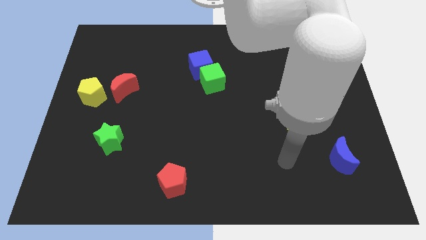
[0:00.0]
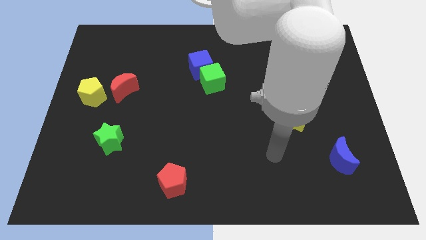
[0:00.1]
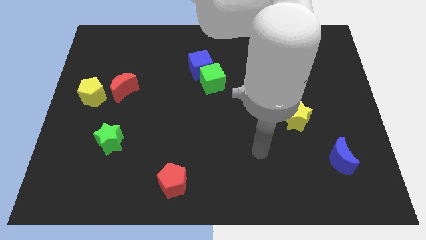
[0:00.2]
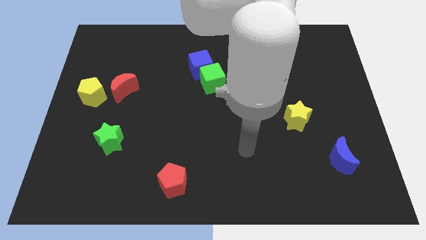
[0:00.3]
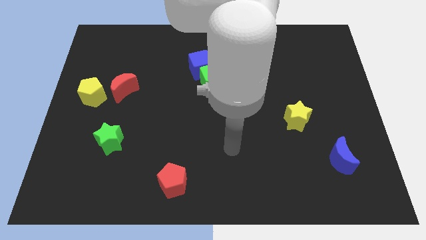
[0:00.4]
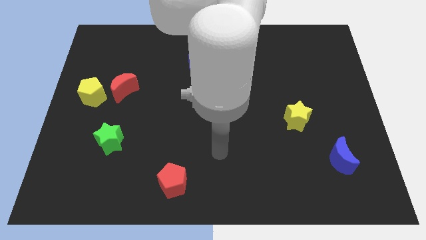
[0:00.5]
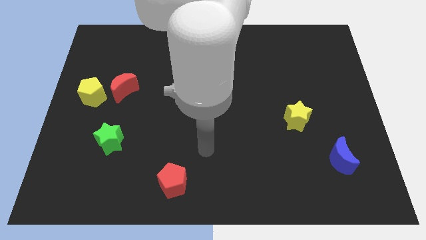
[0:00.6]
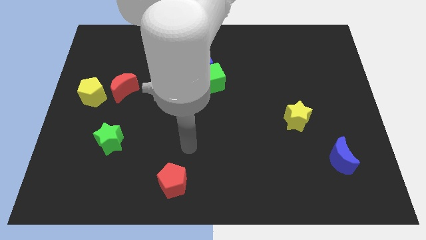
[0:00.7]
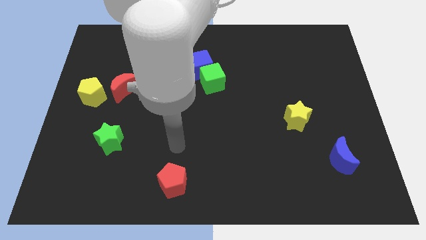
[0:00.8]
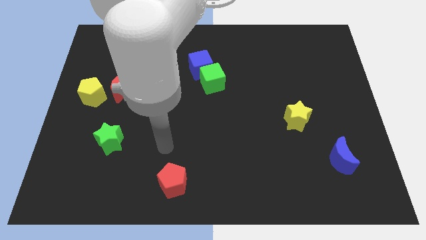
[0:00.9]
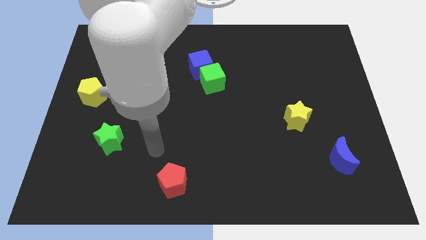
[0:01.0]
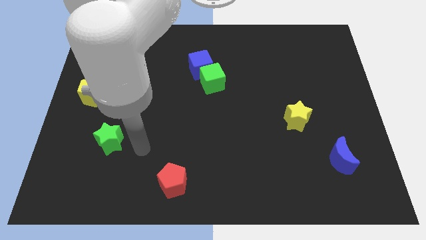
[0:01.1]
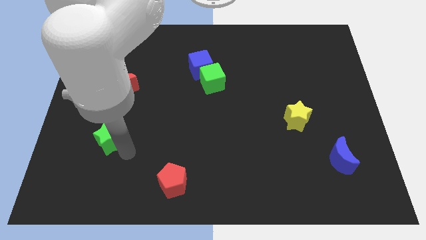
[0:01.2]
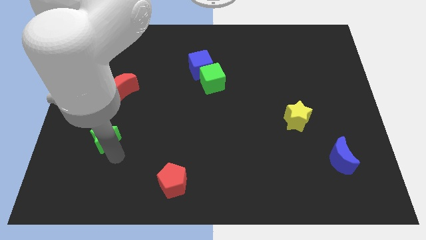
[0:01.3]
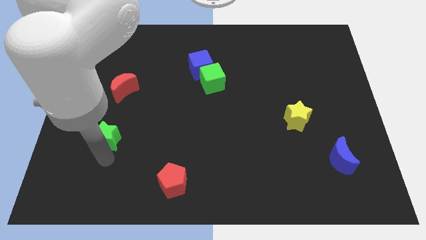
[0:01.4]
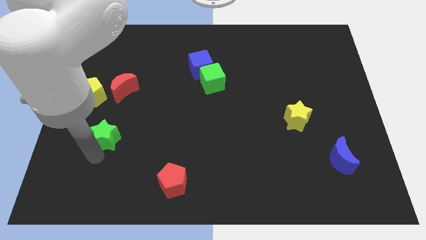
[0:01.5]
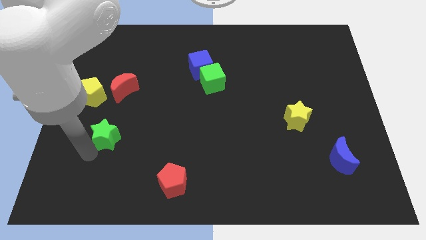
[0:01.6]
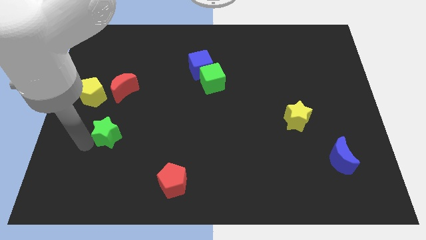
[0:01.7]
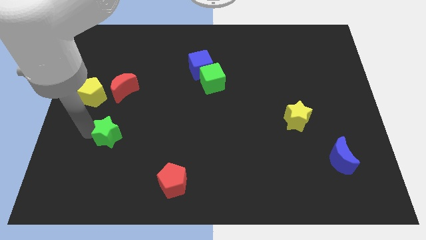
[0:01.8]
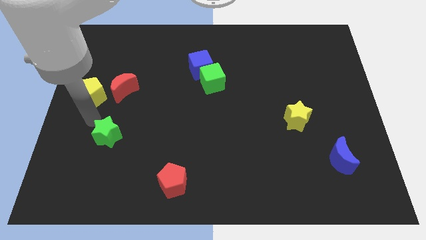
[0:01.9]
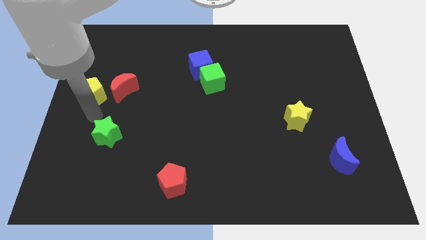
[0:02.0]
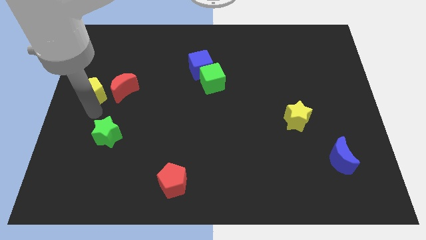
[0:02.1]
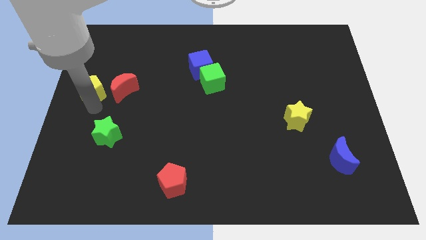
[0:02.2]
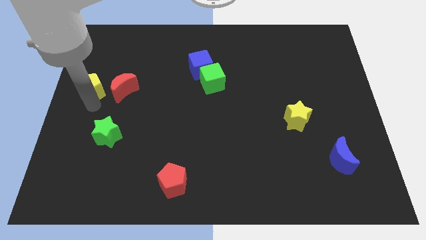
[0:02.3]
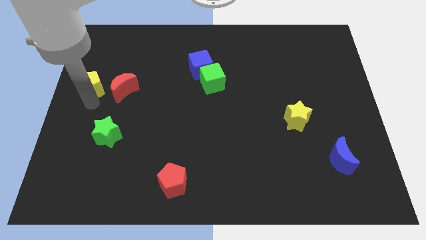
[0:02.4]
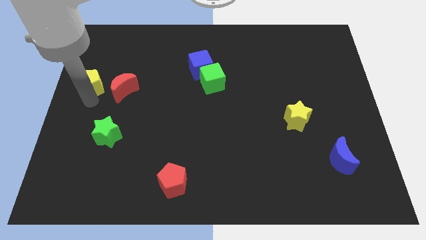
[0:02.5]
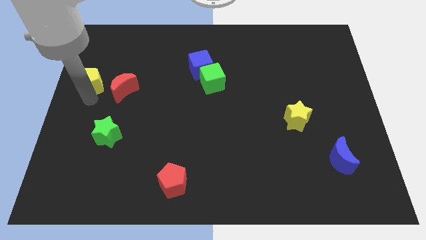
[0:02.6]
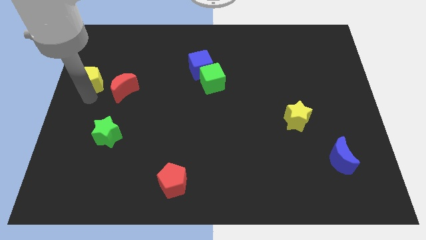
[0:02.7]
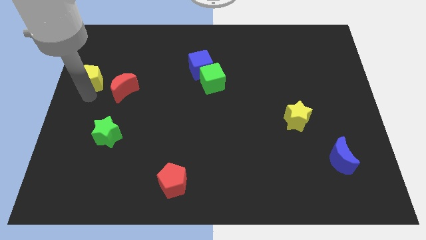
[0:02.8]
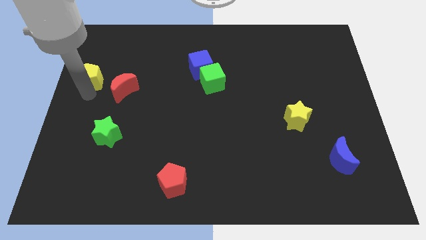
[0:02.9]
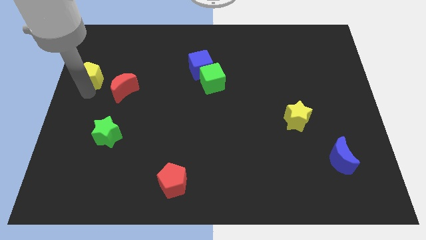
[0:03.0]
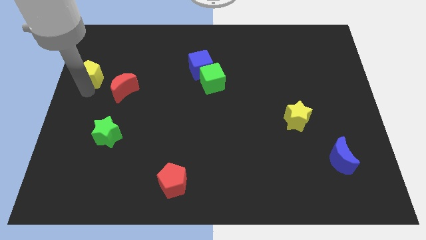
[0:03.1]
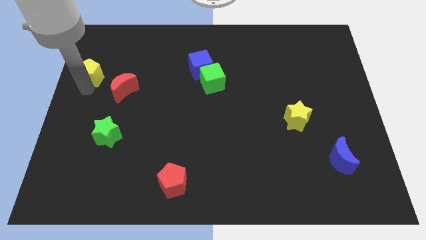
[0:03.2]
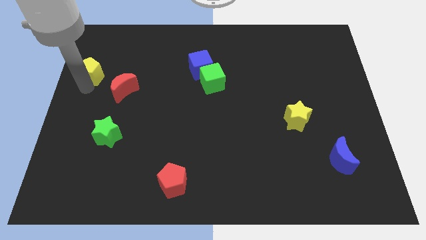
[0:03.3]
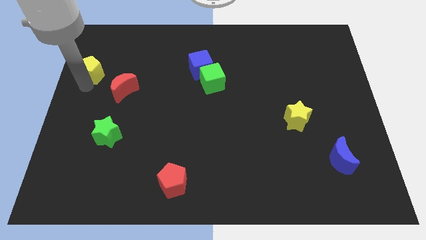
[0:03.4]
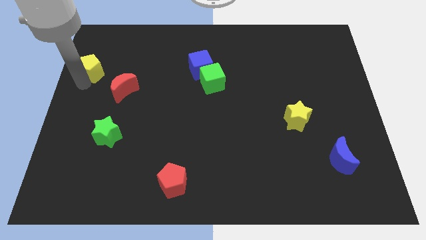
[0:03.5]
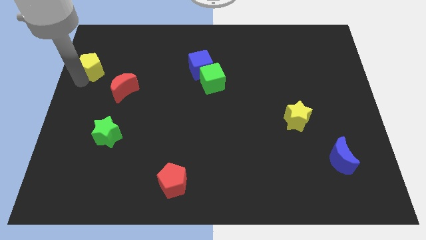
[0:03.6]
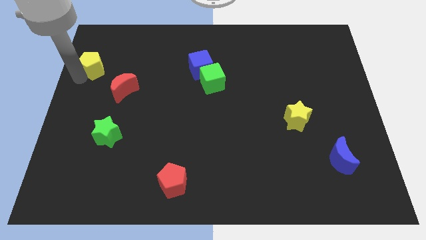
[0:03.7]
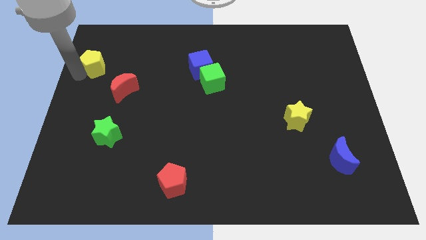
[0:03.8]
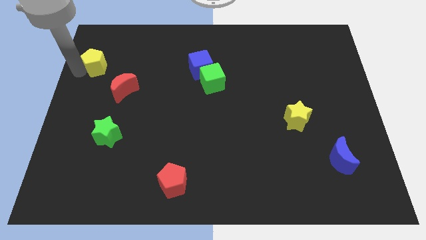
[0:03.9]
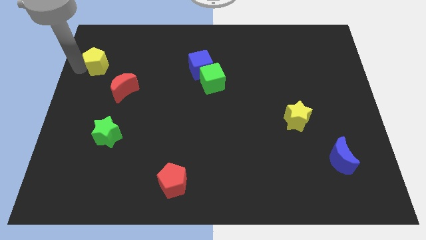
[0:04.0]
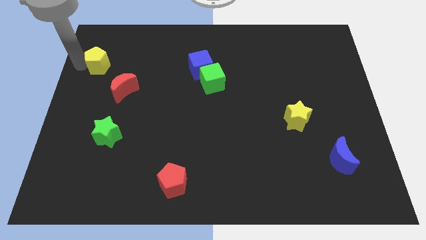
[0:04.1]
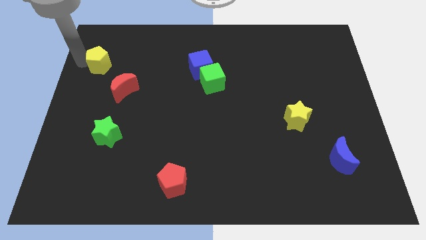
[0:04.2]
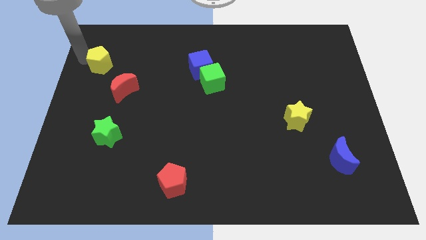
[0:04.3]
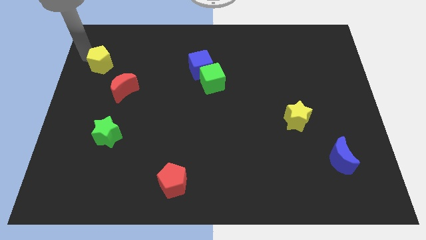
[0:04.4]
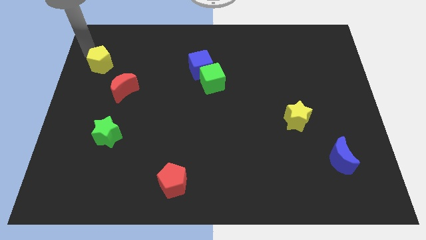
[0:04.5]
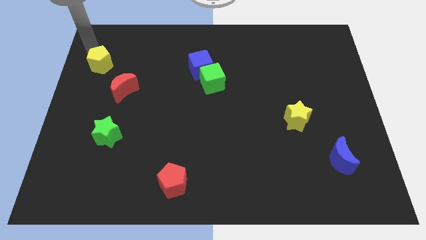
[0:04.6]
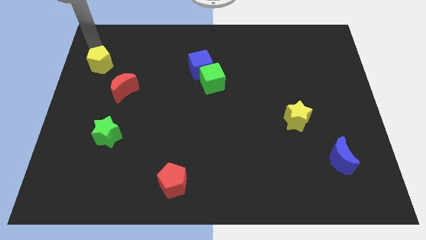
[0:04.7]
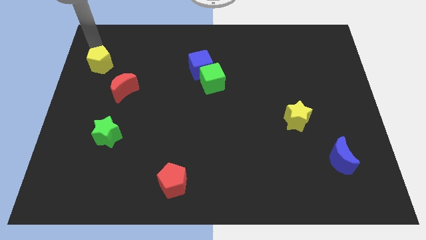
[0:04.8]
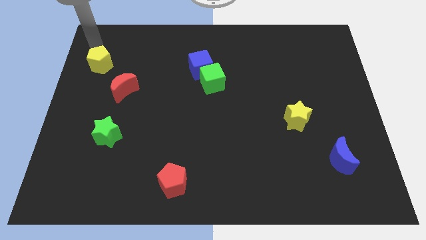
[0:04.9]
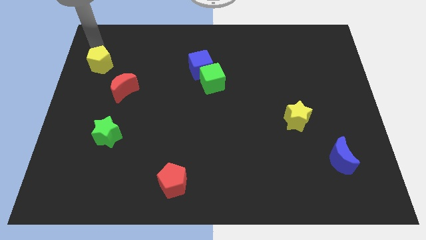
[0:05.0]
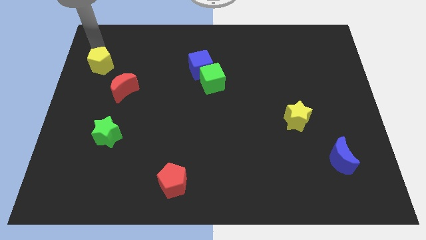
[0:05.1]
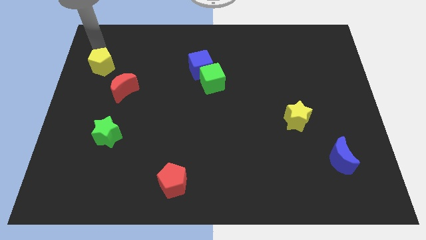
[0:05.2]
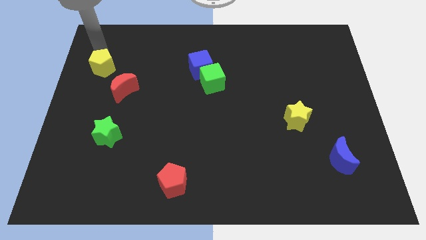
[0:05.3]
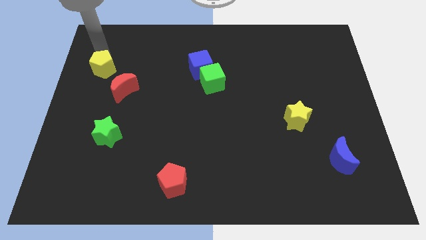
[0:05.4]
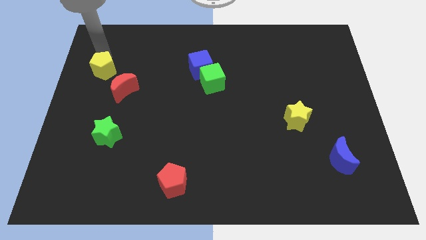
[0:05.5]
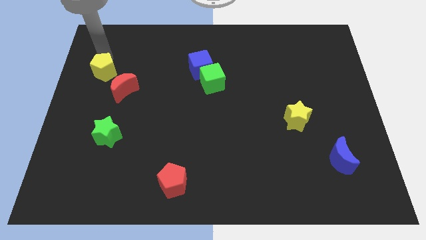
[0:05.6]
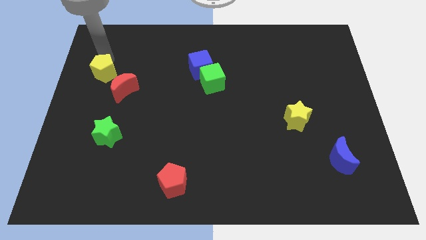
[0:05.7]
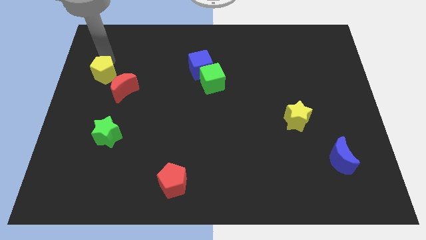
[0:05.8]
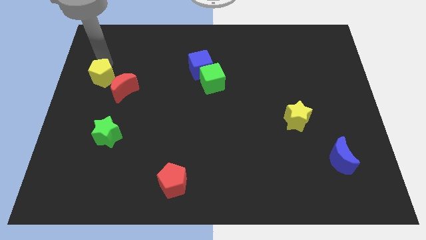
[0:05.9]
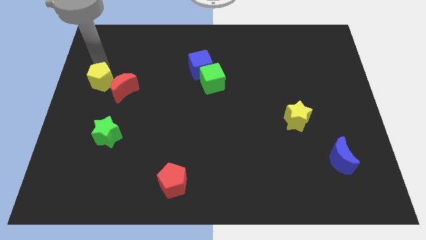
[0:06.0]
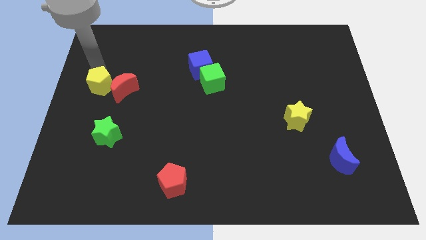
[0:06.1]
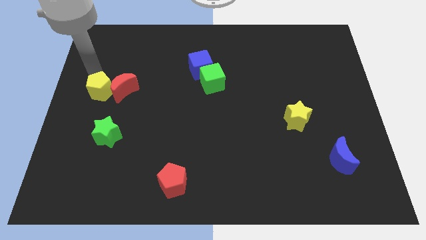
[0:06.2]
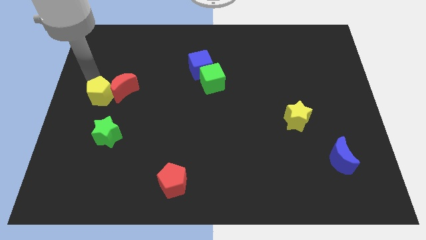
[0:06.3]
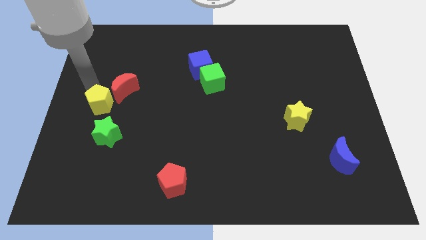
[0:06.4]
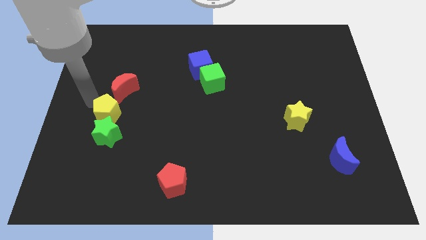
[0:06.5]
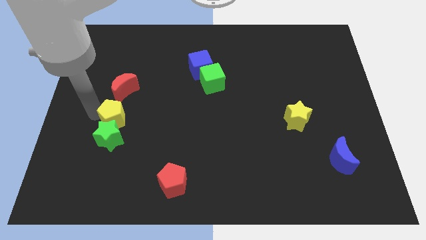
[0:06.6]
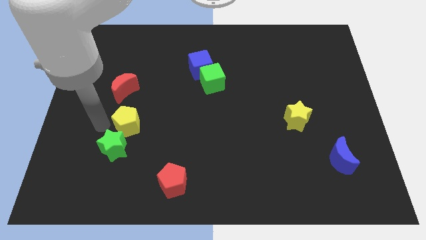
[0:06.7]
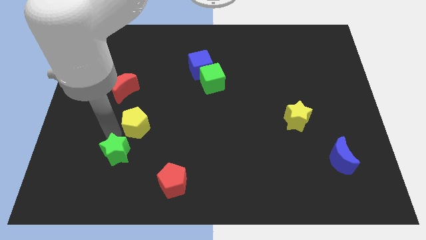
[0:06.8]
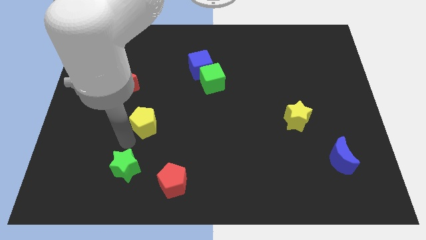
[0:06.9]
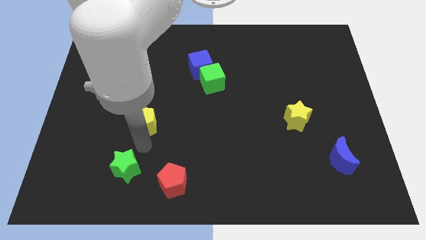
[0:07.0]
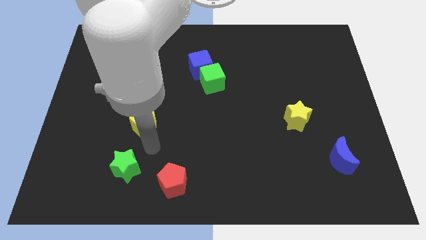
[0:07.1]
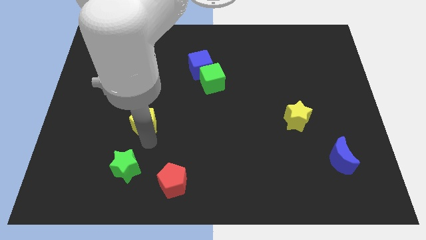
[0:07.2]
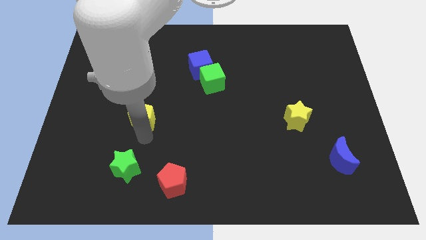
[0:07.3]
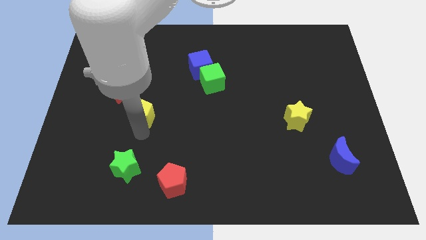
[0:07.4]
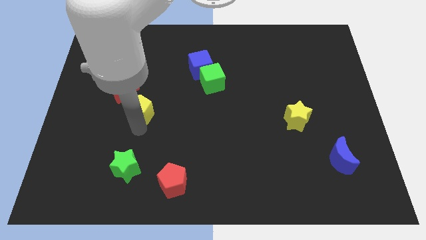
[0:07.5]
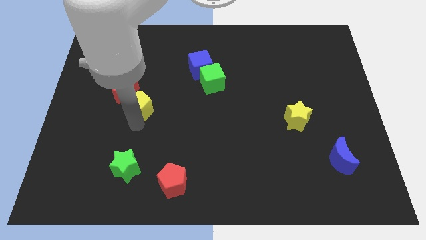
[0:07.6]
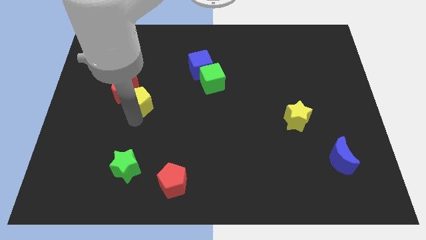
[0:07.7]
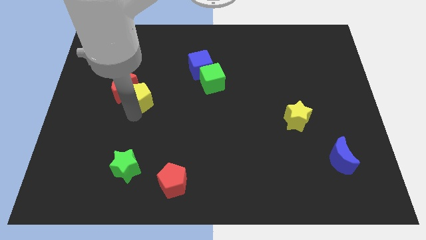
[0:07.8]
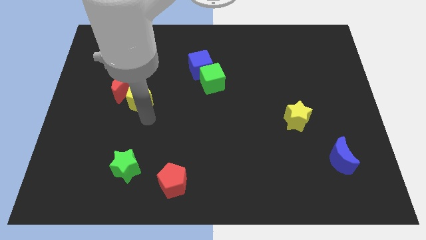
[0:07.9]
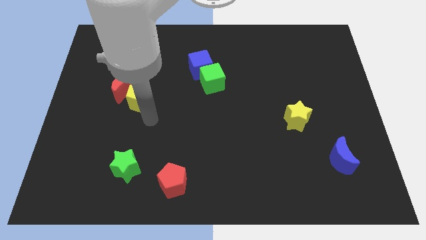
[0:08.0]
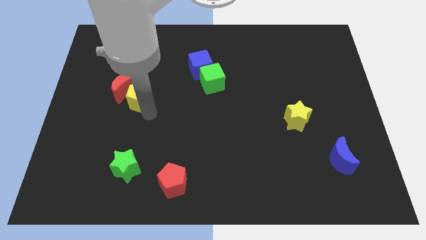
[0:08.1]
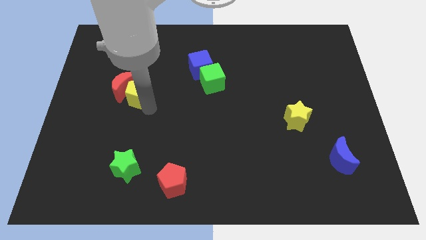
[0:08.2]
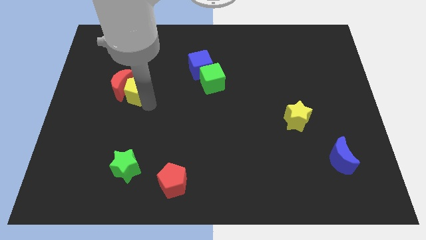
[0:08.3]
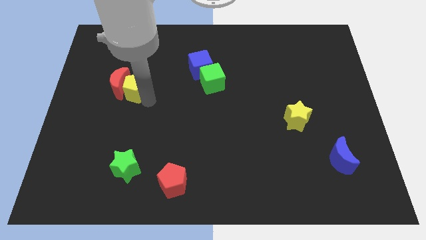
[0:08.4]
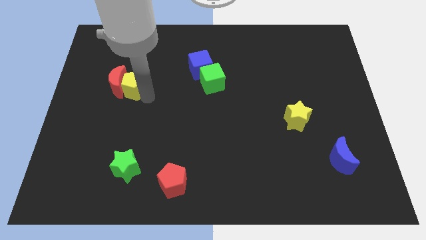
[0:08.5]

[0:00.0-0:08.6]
slightly move the yellow pentagon diagonally upwards and to the right
